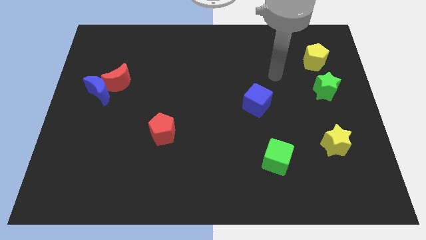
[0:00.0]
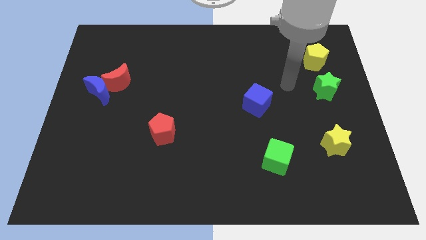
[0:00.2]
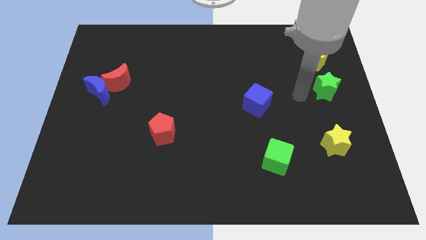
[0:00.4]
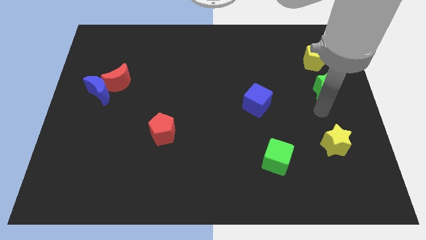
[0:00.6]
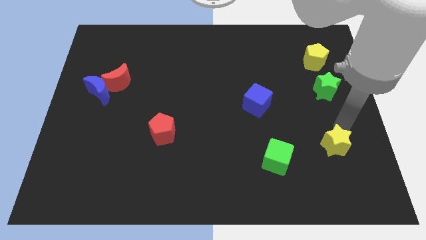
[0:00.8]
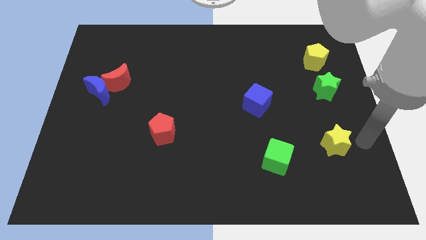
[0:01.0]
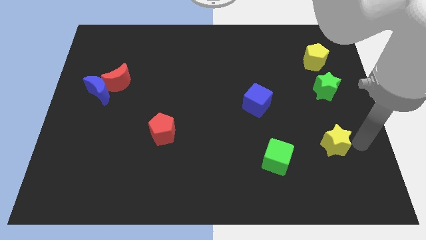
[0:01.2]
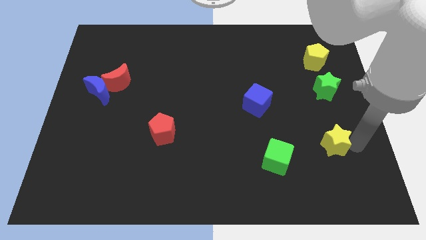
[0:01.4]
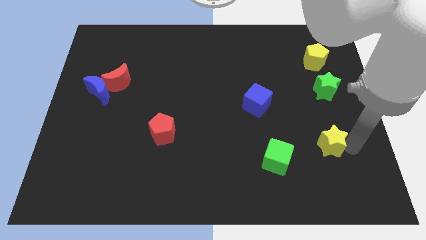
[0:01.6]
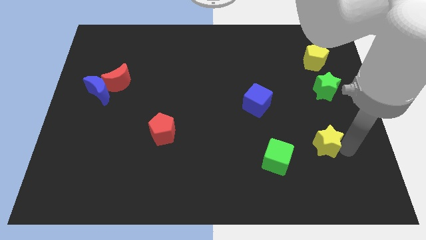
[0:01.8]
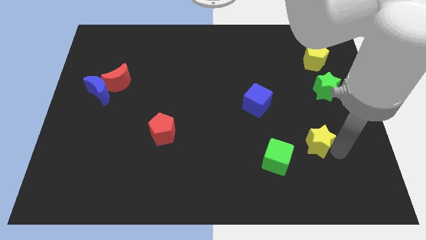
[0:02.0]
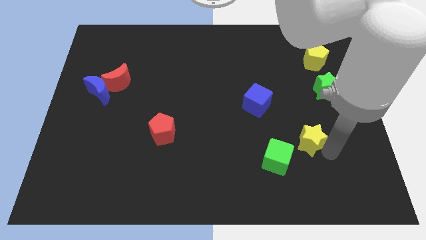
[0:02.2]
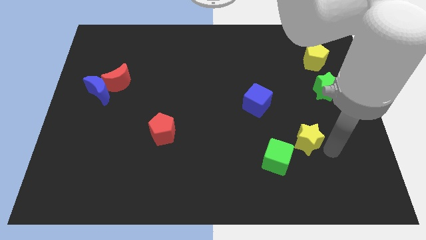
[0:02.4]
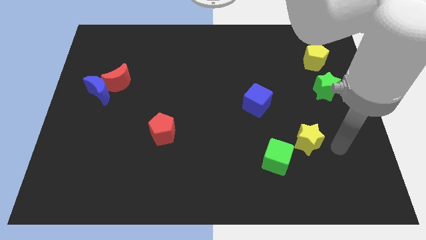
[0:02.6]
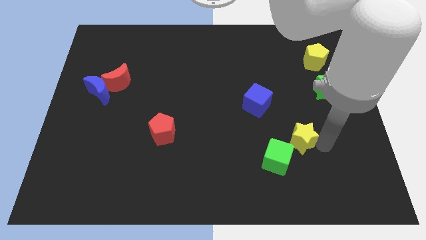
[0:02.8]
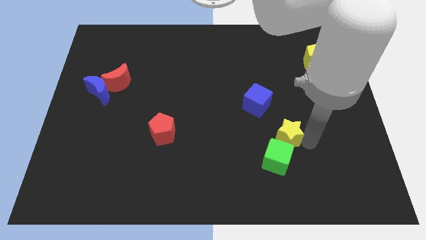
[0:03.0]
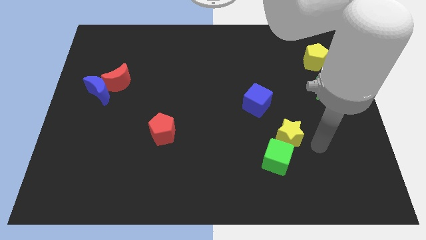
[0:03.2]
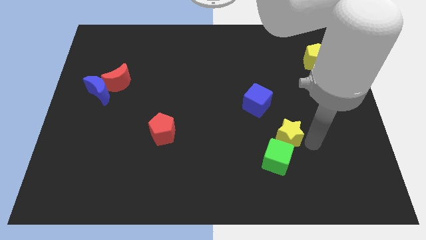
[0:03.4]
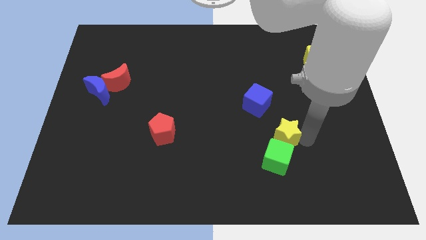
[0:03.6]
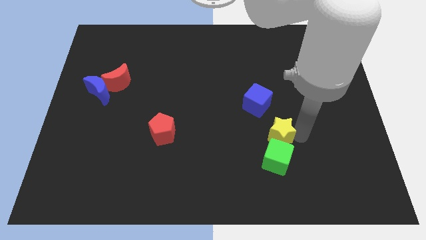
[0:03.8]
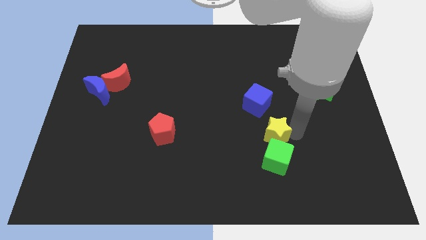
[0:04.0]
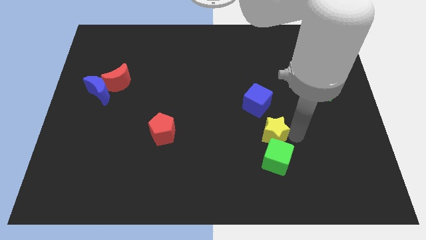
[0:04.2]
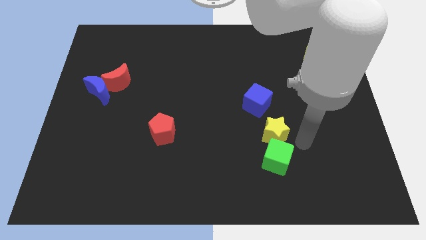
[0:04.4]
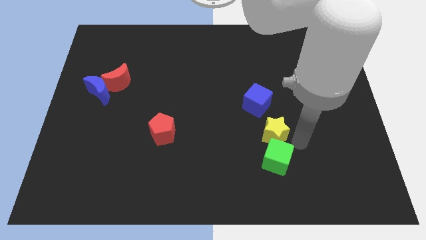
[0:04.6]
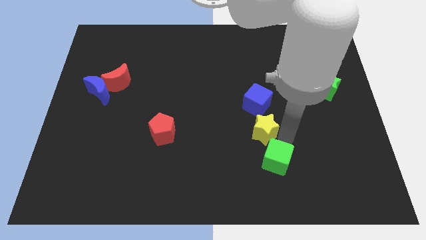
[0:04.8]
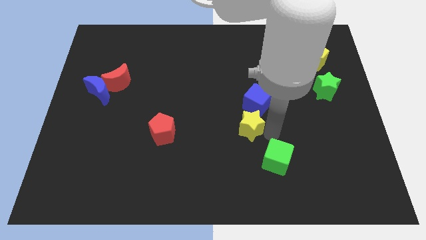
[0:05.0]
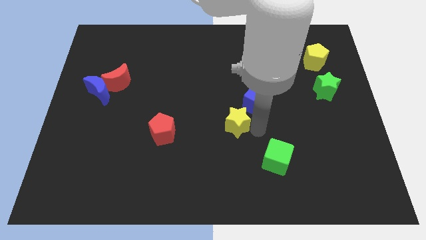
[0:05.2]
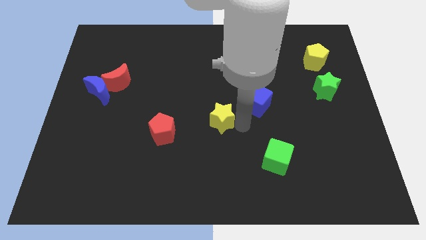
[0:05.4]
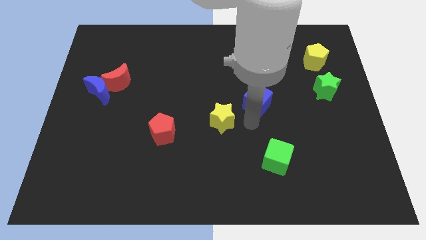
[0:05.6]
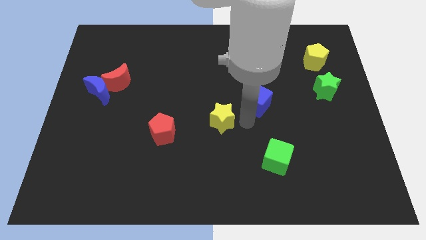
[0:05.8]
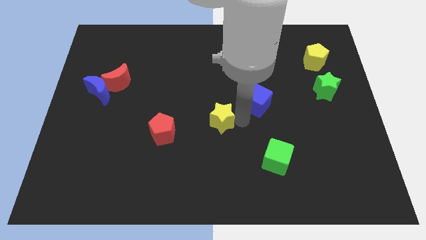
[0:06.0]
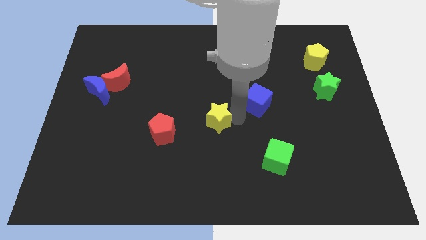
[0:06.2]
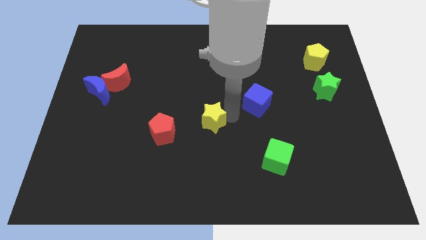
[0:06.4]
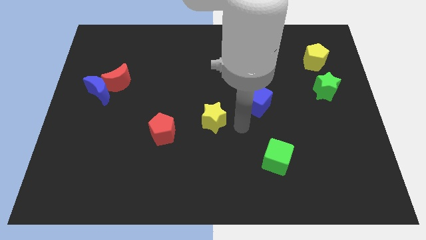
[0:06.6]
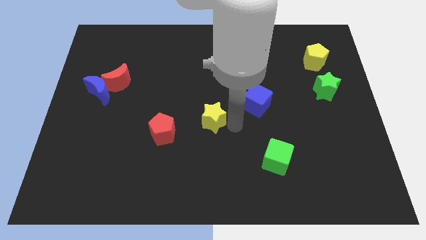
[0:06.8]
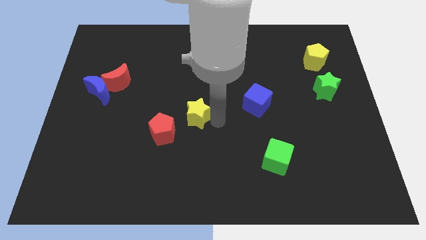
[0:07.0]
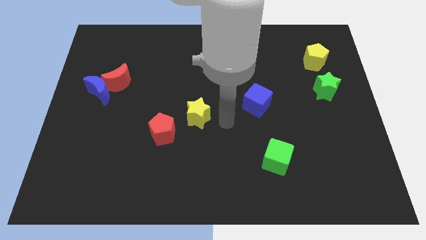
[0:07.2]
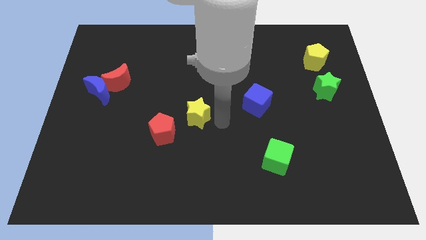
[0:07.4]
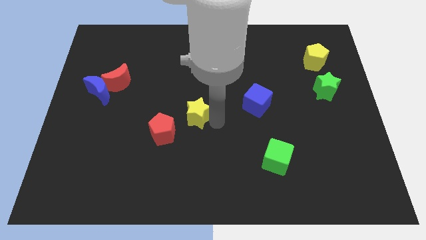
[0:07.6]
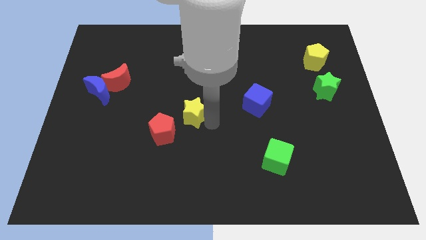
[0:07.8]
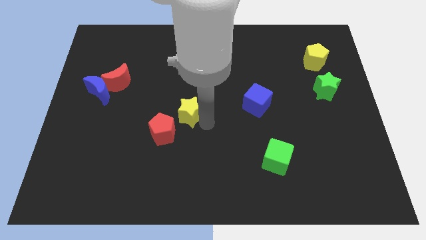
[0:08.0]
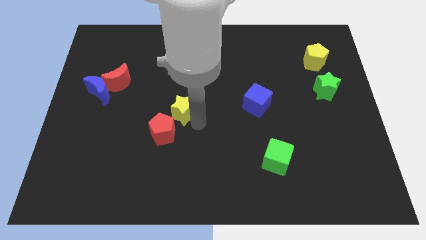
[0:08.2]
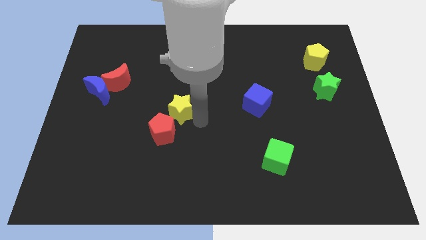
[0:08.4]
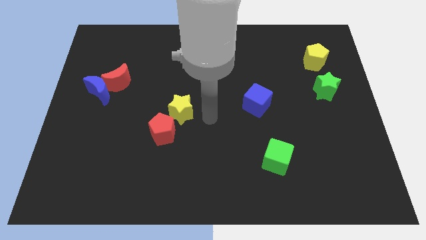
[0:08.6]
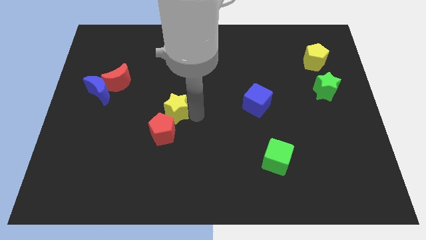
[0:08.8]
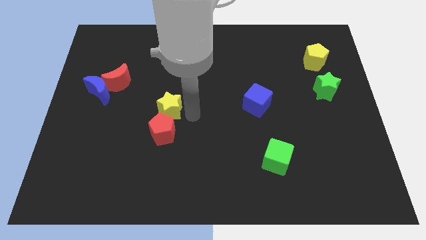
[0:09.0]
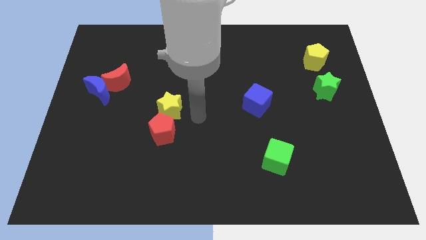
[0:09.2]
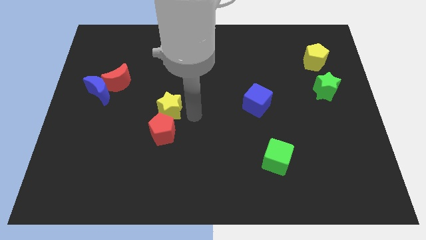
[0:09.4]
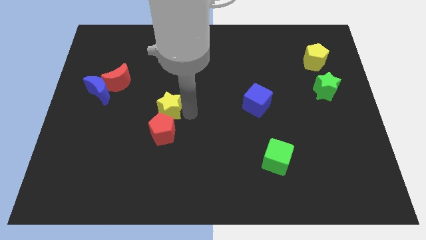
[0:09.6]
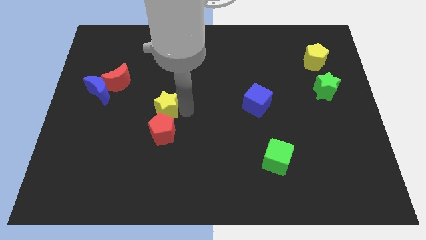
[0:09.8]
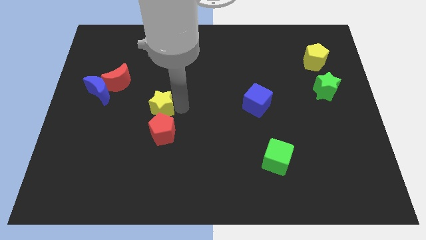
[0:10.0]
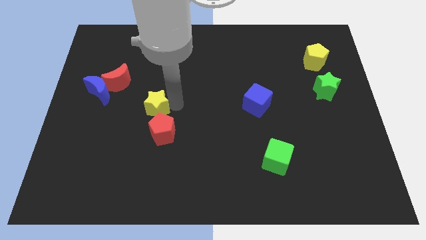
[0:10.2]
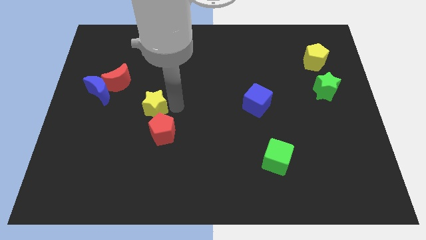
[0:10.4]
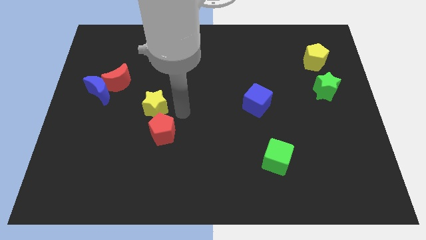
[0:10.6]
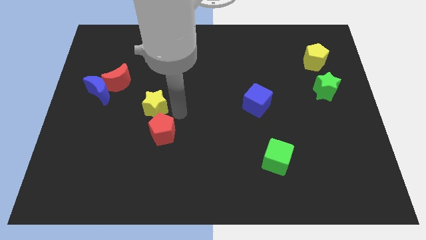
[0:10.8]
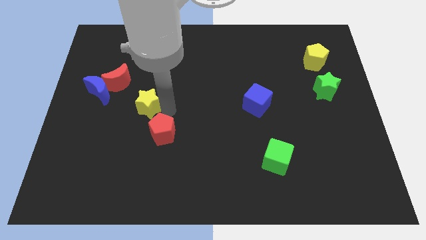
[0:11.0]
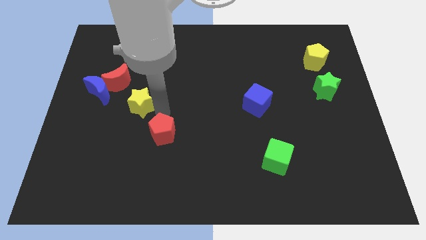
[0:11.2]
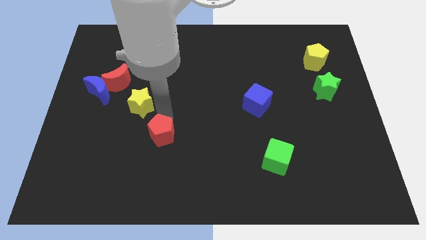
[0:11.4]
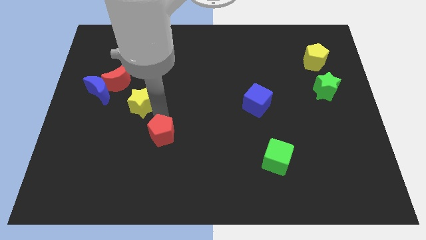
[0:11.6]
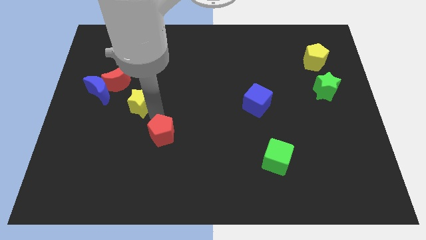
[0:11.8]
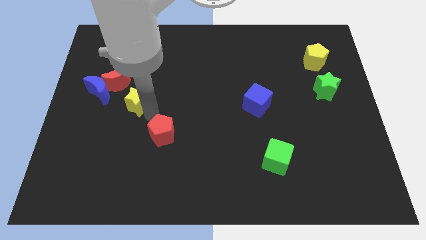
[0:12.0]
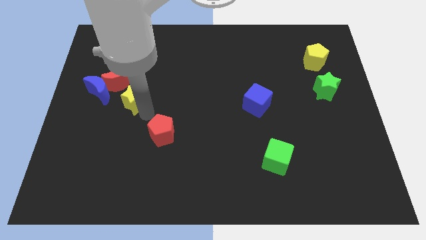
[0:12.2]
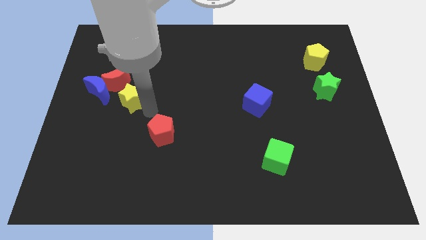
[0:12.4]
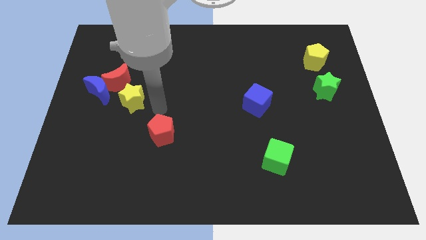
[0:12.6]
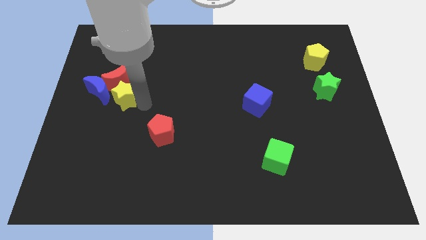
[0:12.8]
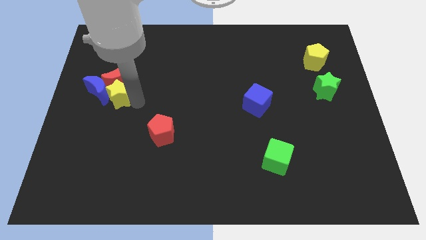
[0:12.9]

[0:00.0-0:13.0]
move the yellow star to the blue moon

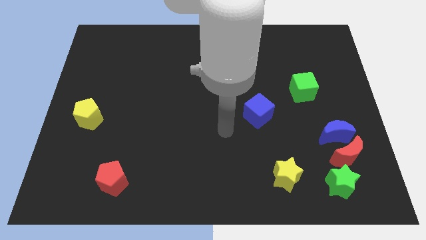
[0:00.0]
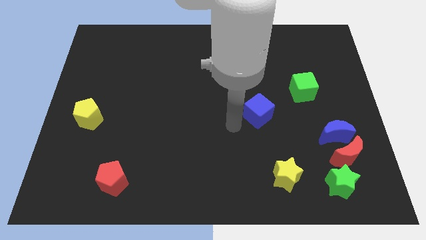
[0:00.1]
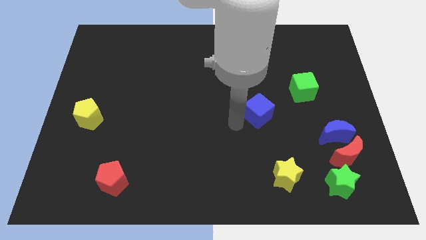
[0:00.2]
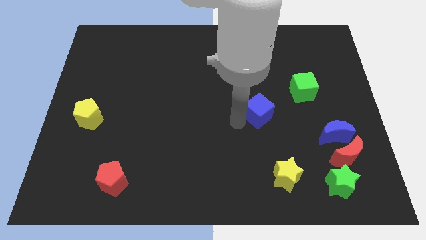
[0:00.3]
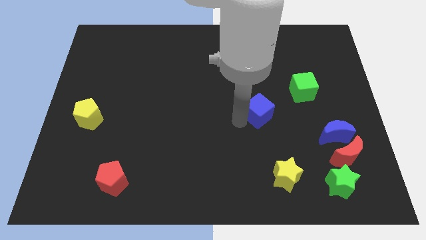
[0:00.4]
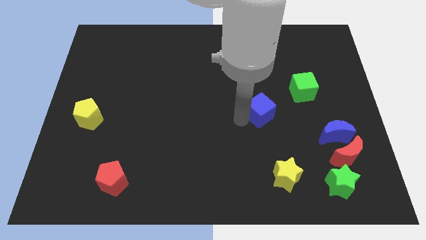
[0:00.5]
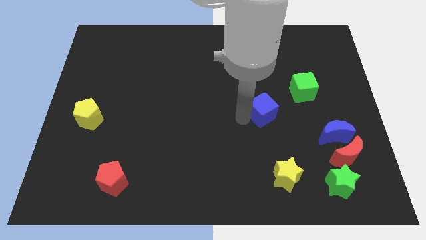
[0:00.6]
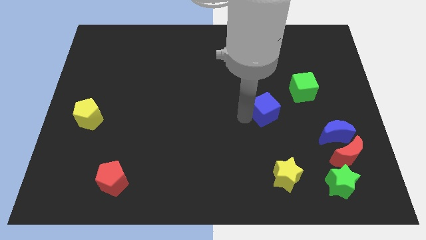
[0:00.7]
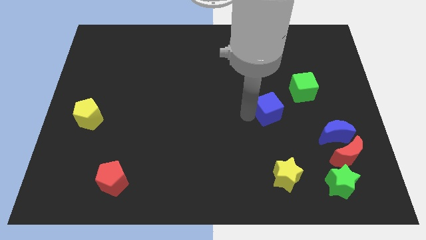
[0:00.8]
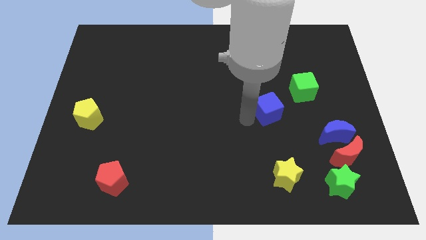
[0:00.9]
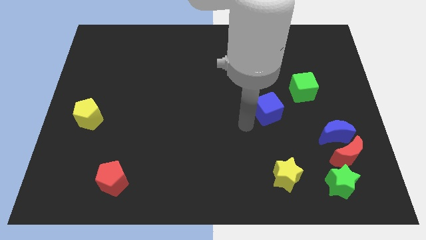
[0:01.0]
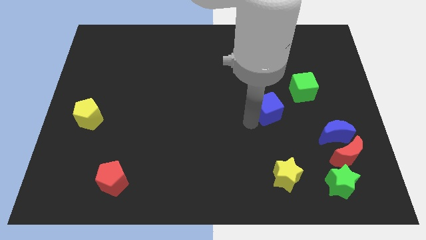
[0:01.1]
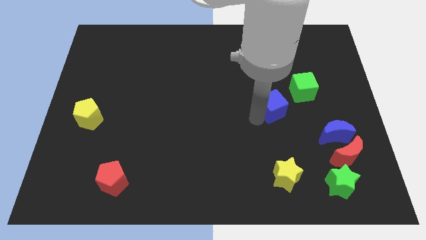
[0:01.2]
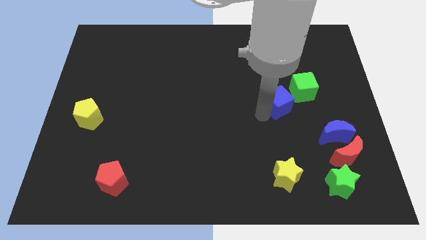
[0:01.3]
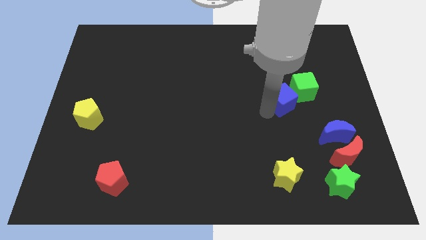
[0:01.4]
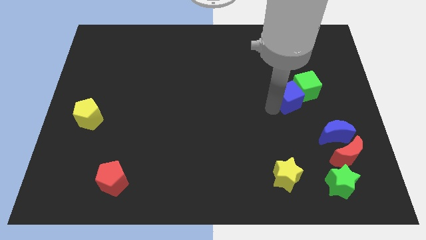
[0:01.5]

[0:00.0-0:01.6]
slide the blue cube next to the green cube
